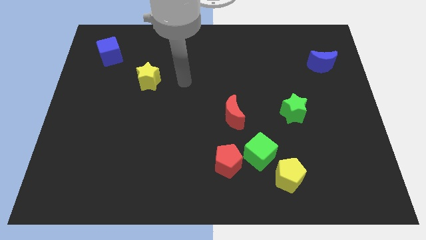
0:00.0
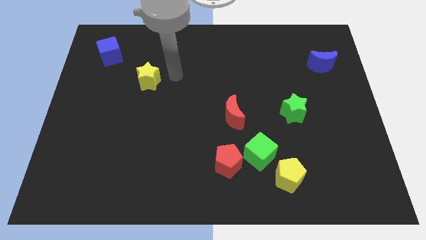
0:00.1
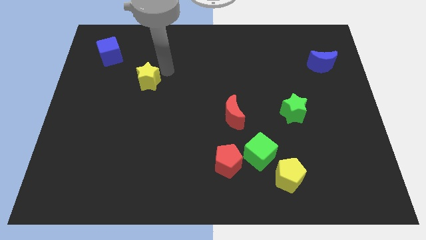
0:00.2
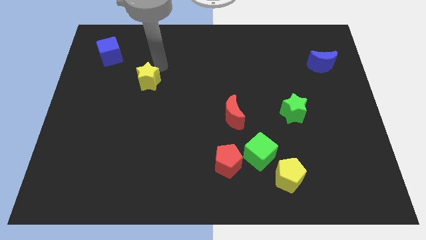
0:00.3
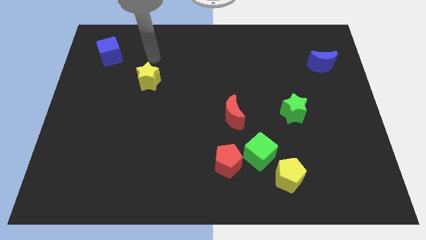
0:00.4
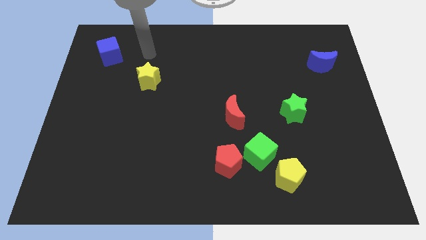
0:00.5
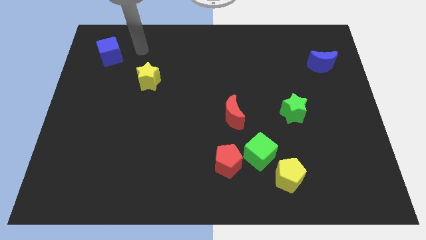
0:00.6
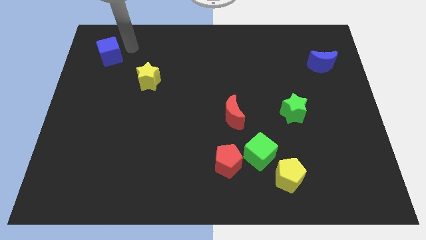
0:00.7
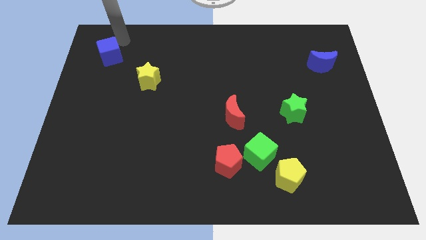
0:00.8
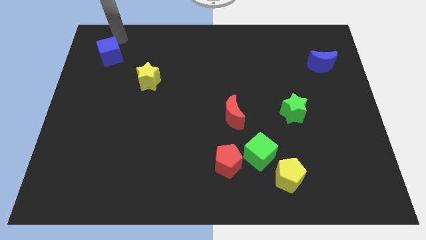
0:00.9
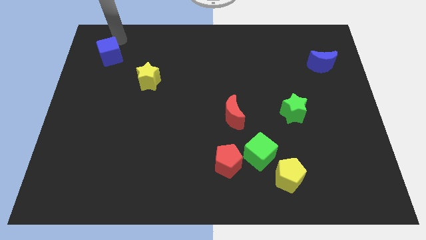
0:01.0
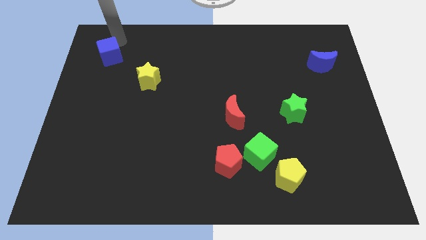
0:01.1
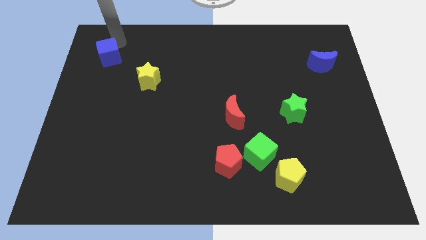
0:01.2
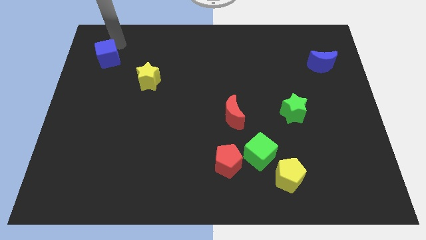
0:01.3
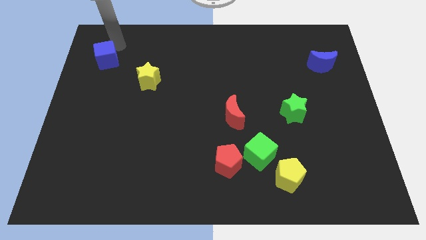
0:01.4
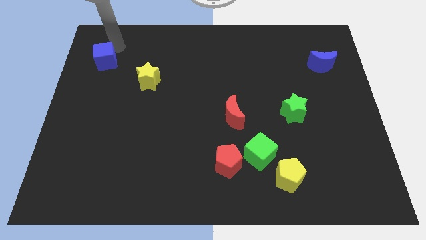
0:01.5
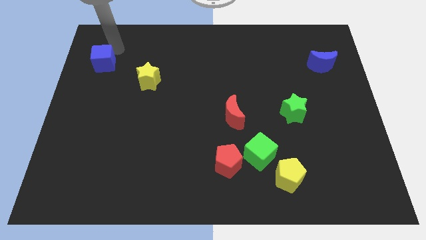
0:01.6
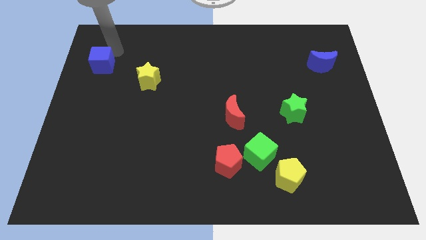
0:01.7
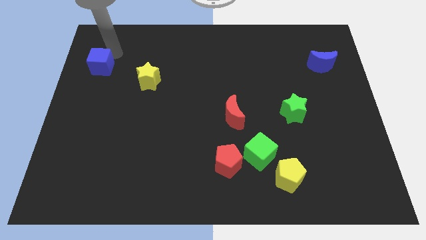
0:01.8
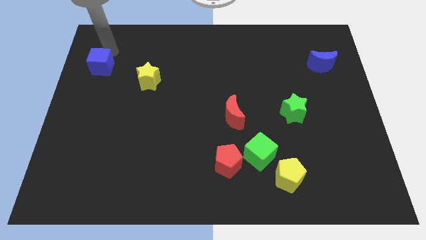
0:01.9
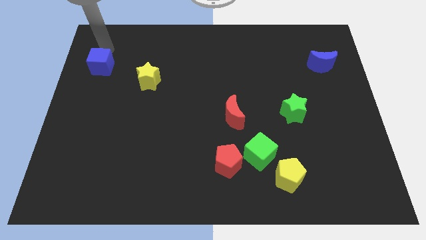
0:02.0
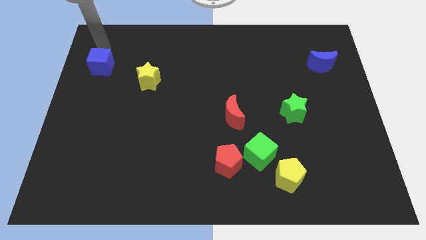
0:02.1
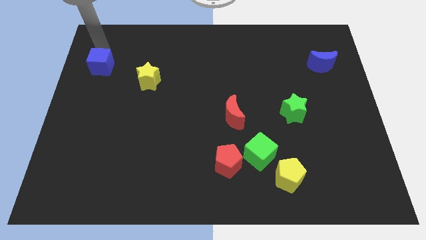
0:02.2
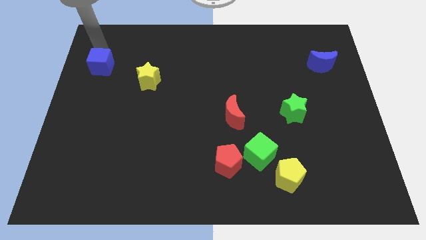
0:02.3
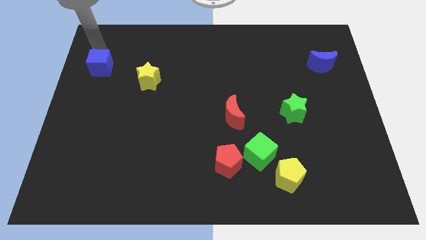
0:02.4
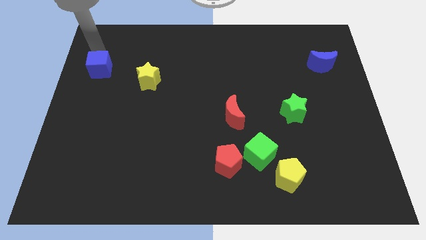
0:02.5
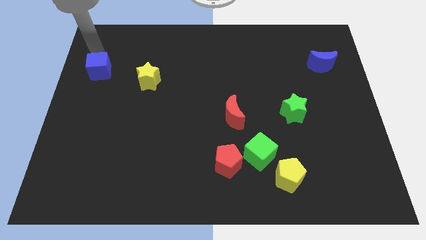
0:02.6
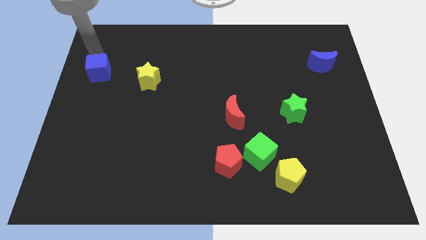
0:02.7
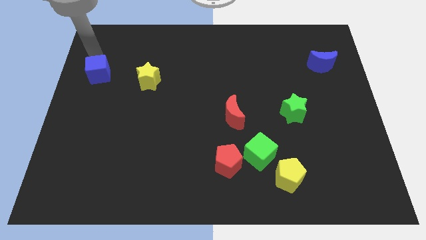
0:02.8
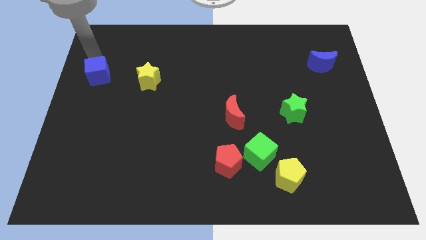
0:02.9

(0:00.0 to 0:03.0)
push the blue cube down a little

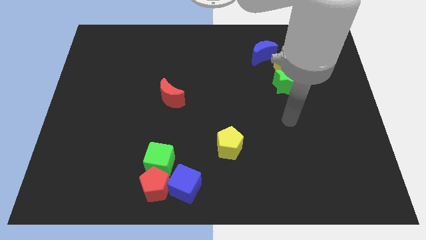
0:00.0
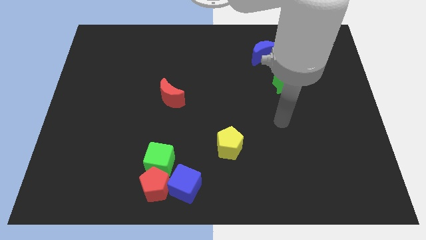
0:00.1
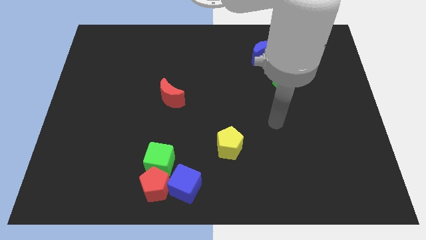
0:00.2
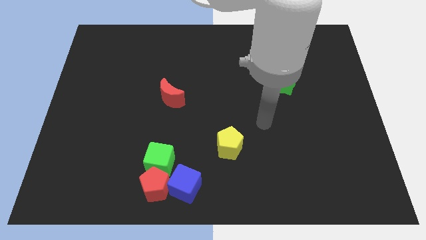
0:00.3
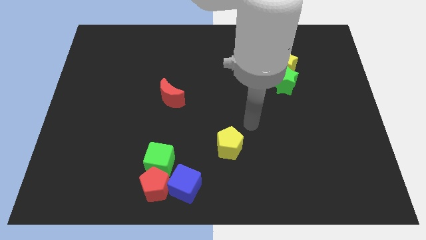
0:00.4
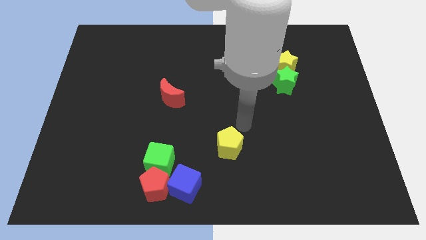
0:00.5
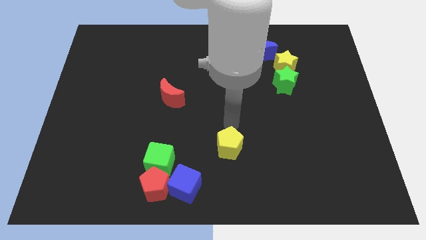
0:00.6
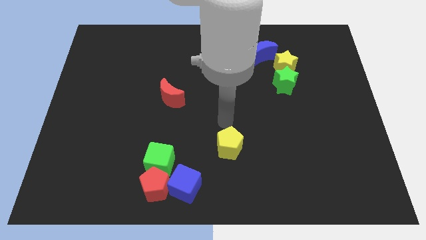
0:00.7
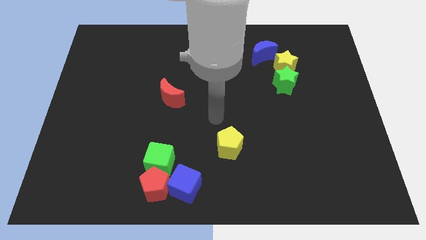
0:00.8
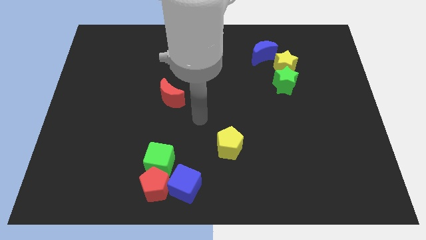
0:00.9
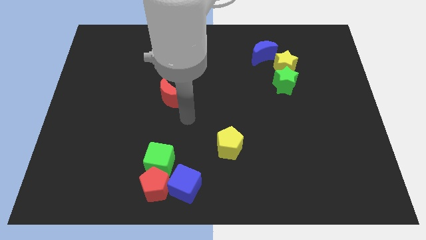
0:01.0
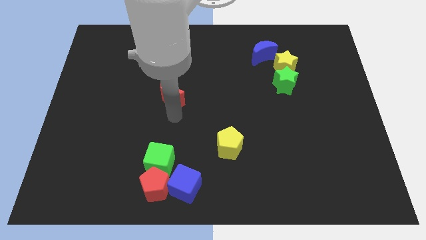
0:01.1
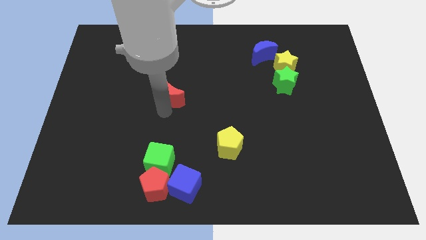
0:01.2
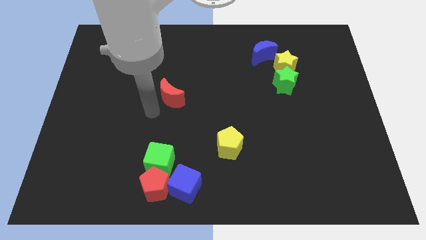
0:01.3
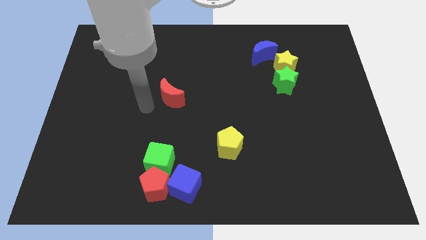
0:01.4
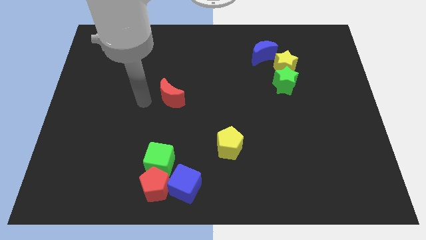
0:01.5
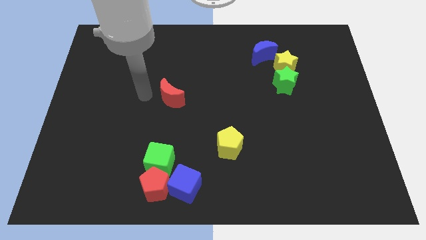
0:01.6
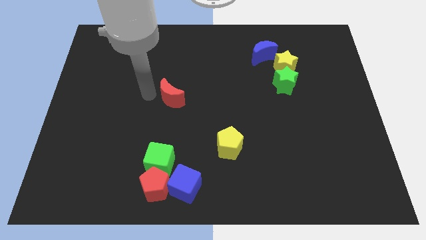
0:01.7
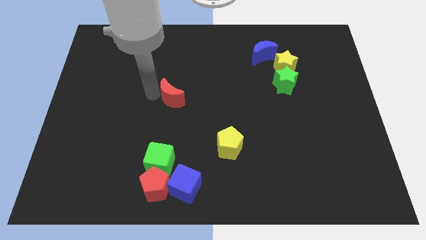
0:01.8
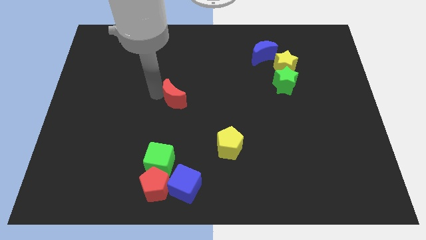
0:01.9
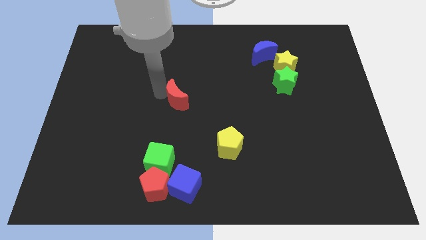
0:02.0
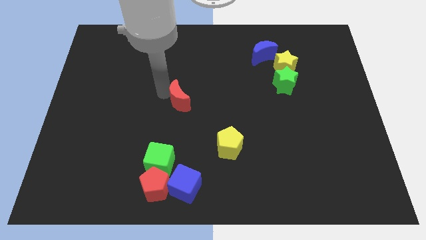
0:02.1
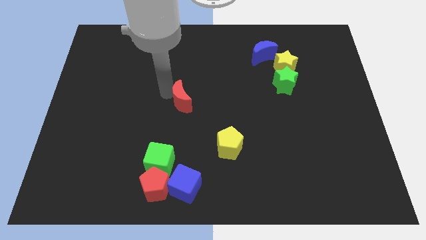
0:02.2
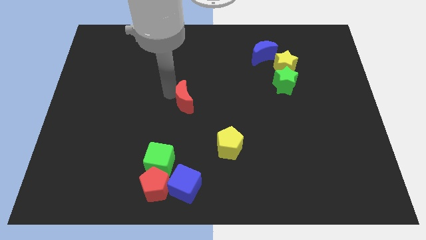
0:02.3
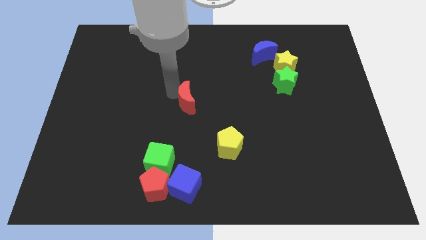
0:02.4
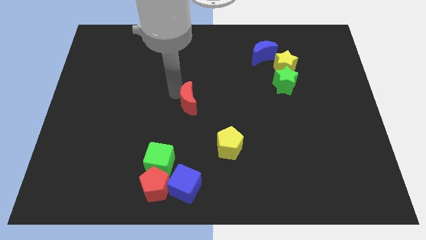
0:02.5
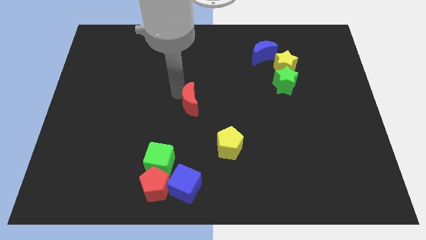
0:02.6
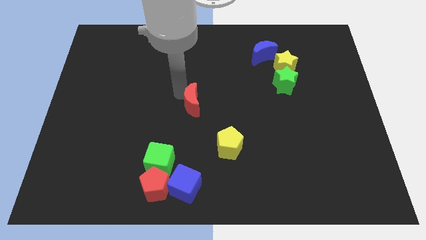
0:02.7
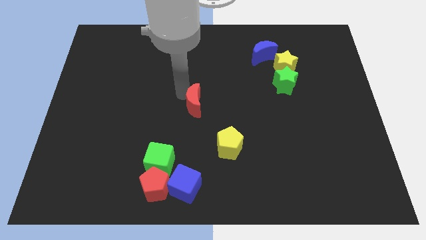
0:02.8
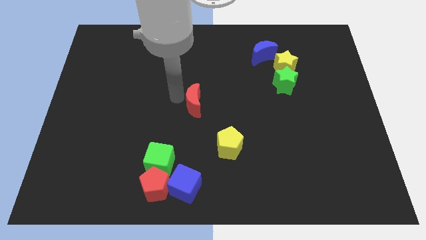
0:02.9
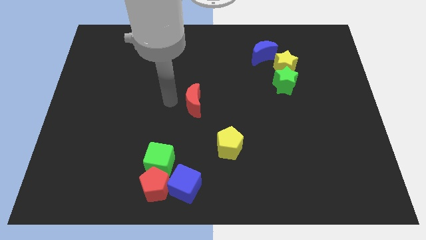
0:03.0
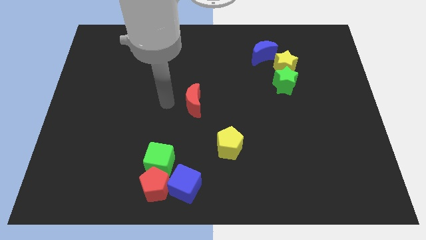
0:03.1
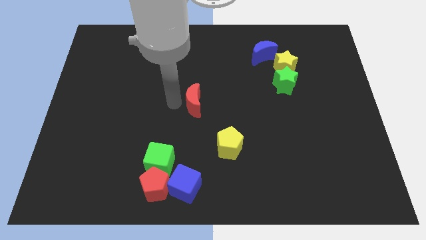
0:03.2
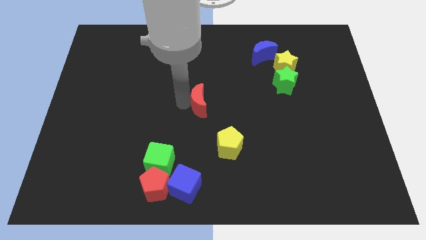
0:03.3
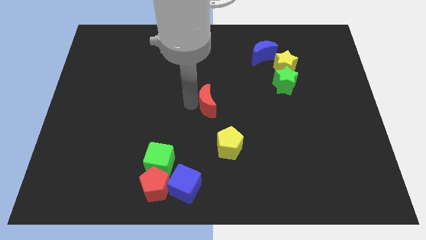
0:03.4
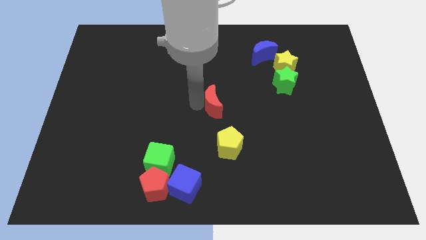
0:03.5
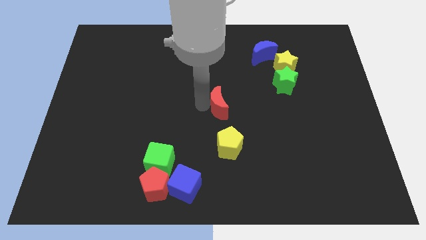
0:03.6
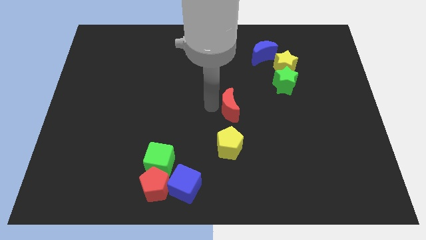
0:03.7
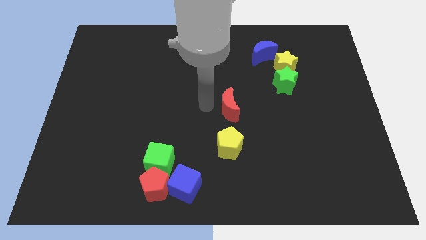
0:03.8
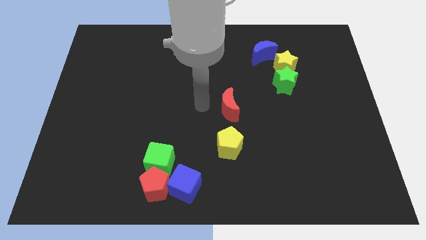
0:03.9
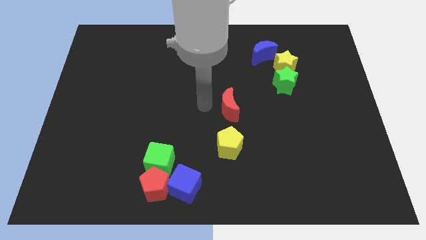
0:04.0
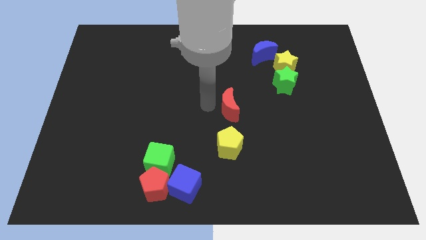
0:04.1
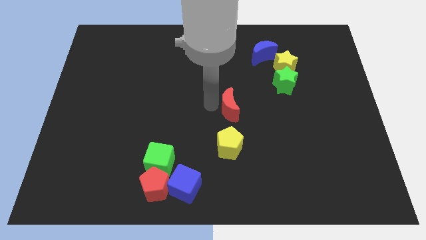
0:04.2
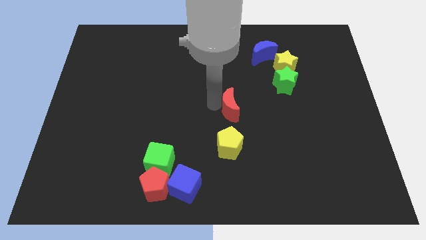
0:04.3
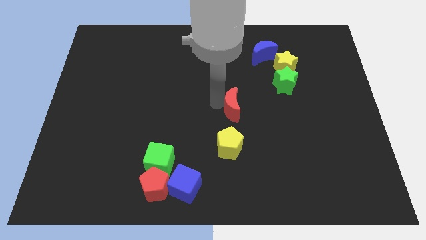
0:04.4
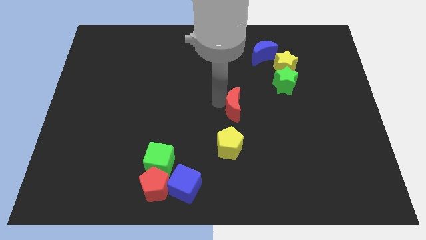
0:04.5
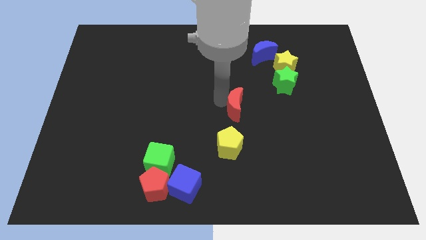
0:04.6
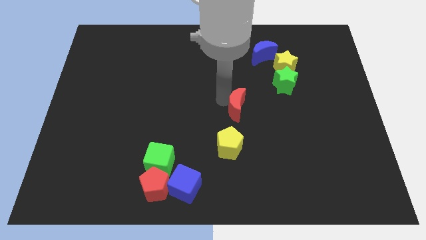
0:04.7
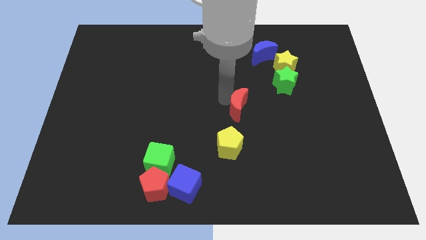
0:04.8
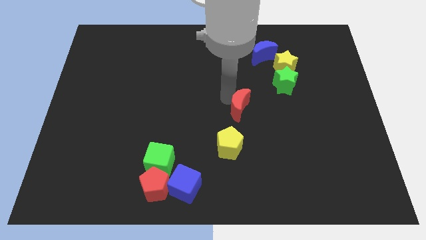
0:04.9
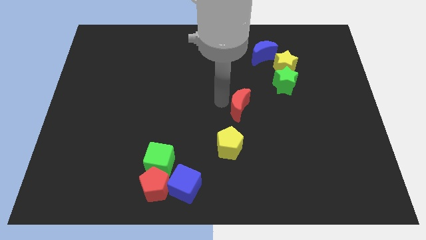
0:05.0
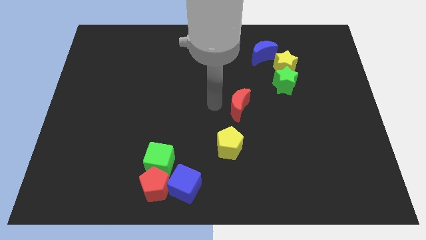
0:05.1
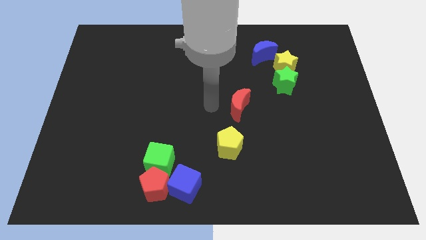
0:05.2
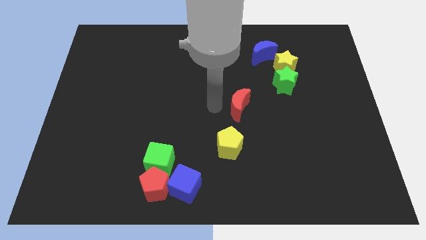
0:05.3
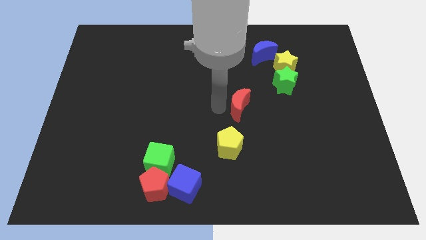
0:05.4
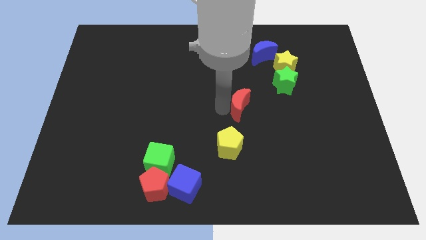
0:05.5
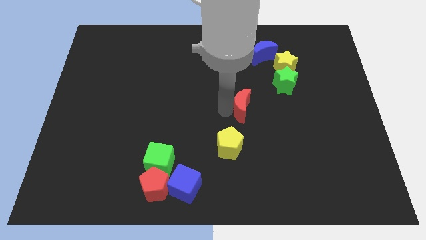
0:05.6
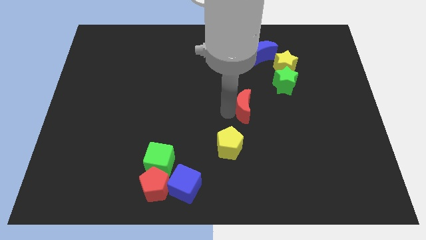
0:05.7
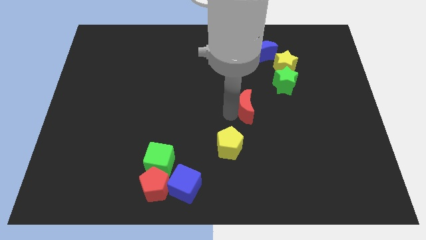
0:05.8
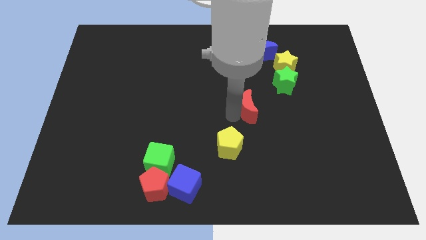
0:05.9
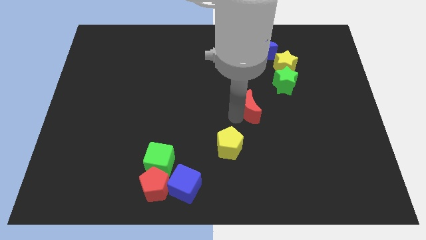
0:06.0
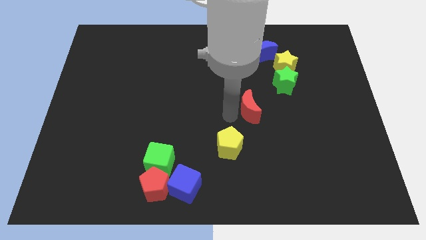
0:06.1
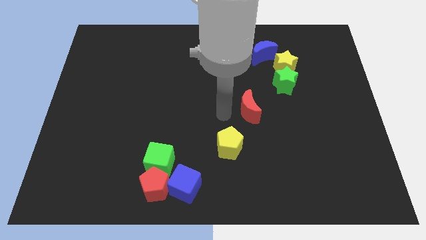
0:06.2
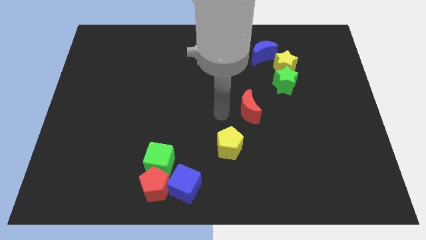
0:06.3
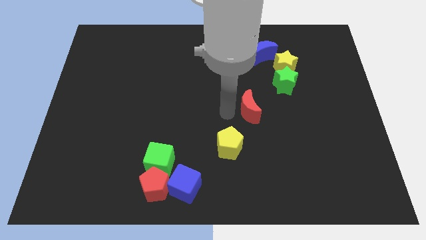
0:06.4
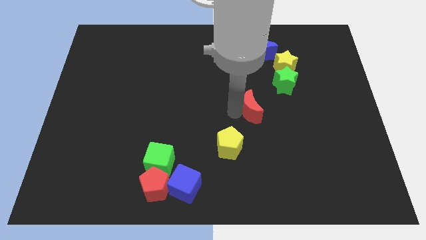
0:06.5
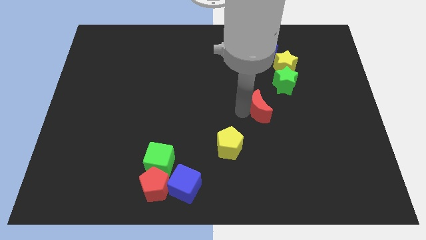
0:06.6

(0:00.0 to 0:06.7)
push the red moon to the right
